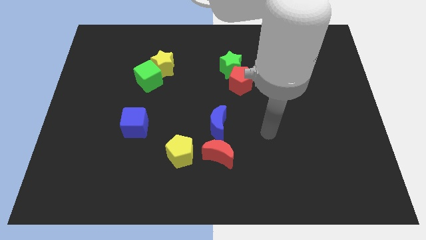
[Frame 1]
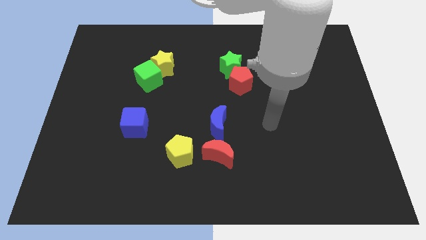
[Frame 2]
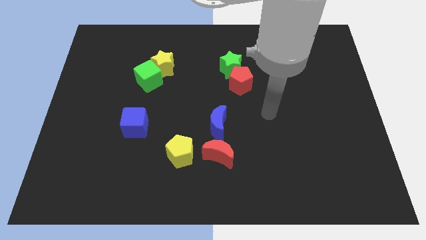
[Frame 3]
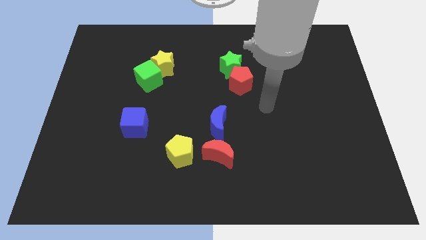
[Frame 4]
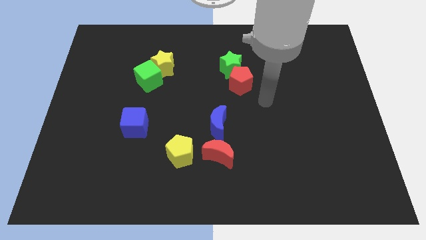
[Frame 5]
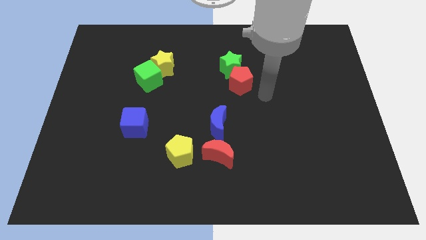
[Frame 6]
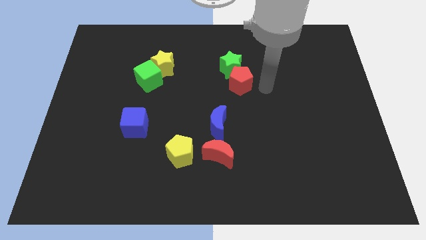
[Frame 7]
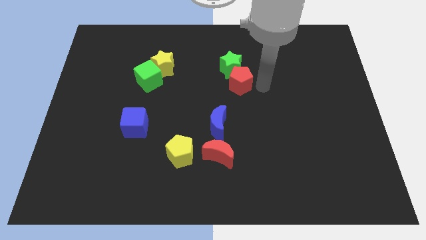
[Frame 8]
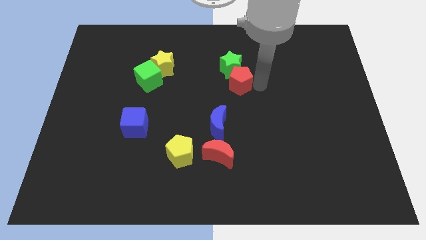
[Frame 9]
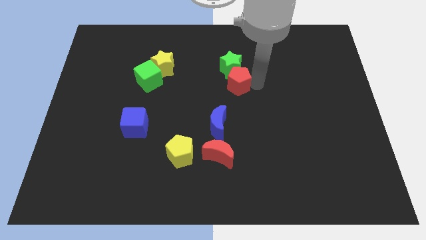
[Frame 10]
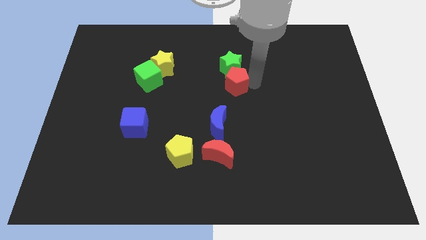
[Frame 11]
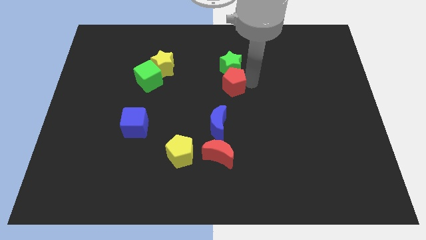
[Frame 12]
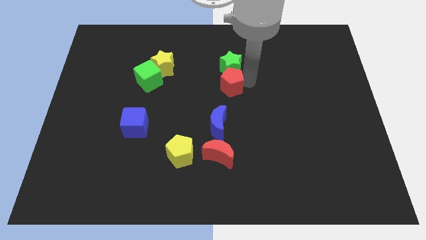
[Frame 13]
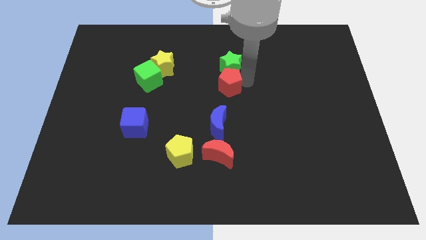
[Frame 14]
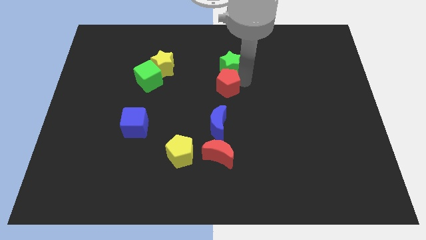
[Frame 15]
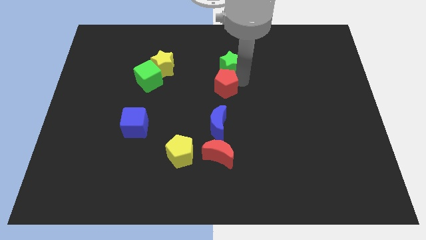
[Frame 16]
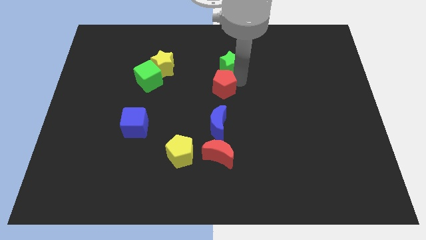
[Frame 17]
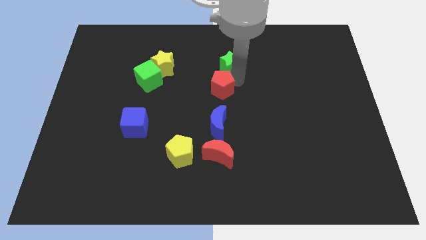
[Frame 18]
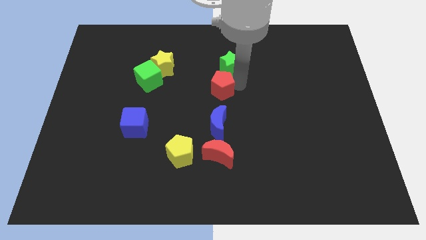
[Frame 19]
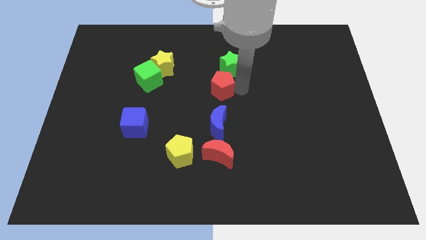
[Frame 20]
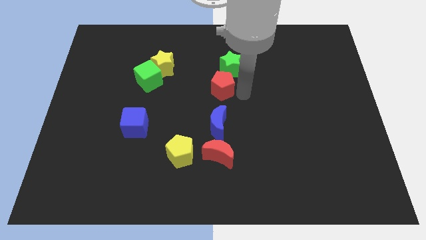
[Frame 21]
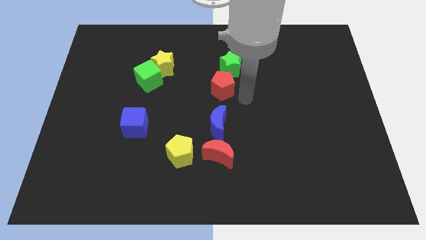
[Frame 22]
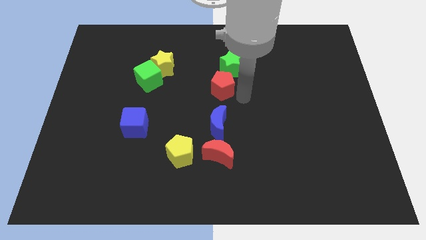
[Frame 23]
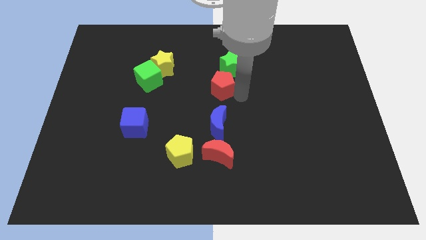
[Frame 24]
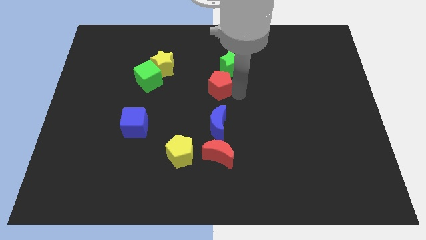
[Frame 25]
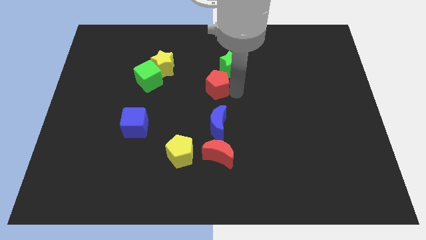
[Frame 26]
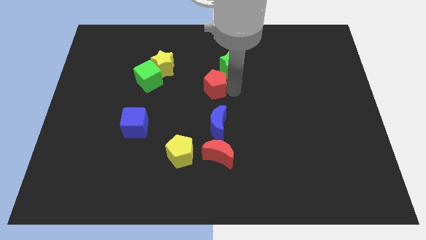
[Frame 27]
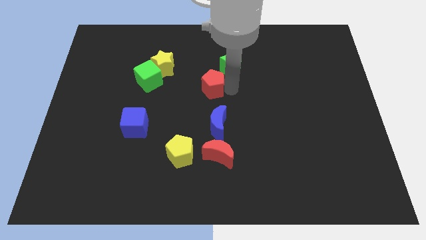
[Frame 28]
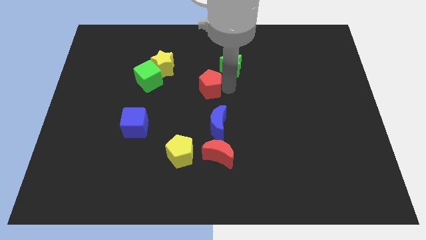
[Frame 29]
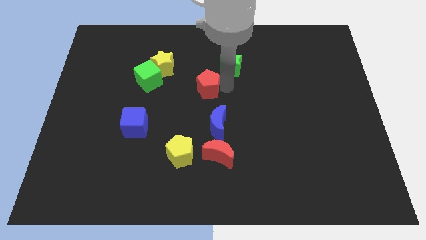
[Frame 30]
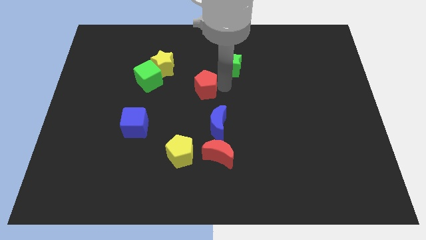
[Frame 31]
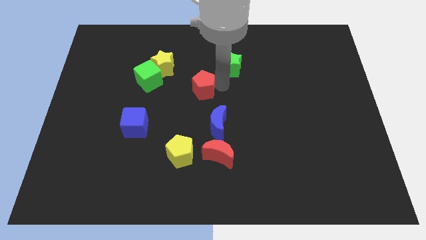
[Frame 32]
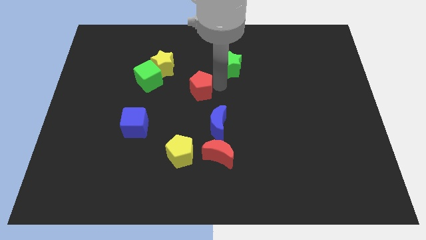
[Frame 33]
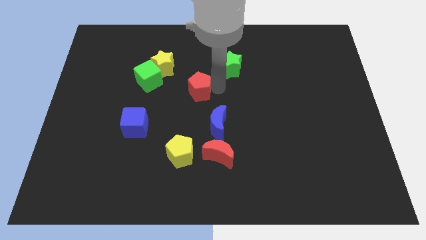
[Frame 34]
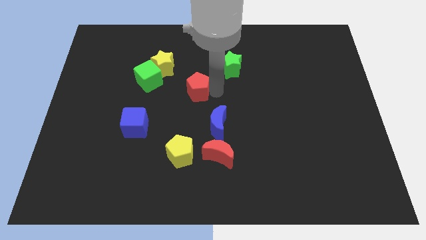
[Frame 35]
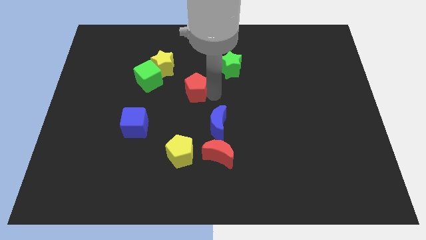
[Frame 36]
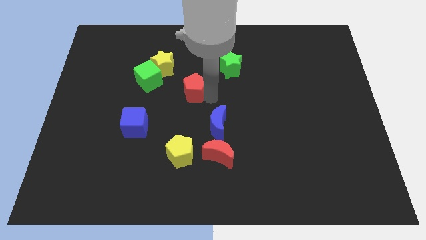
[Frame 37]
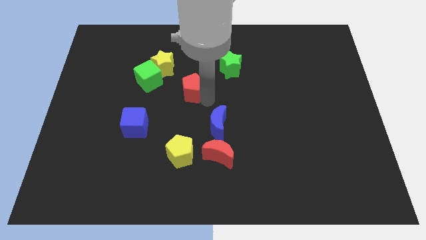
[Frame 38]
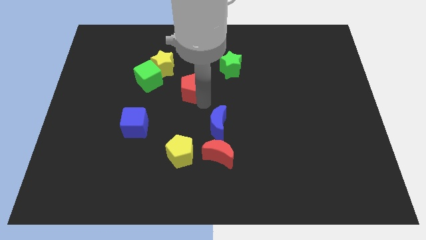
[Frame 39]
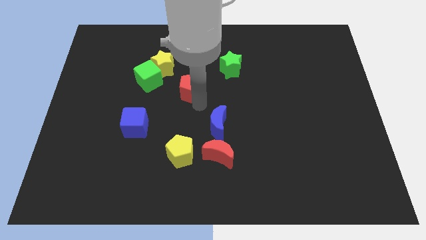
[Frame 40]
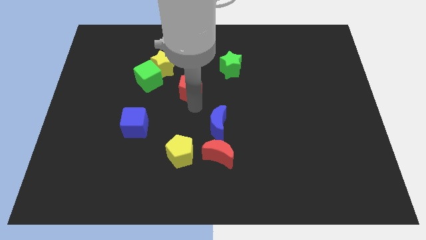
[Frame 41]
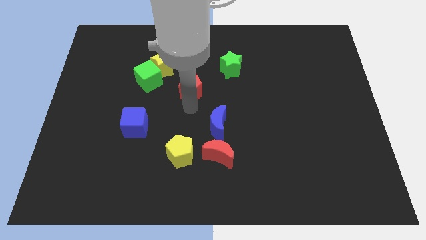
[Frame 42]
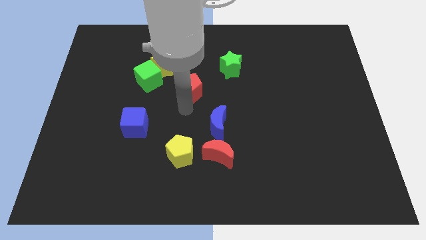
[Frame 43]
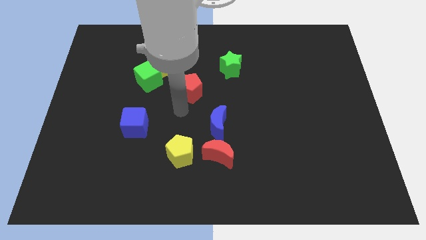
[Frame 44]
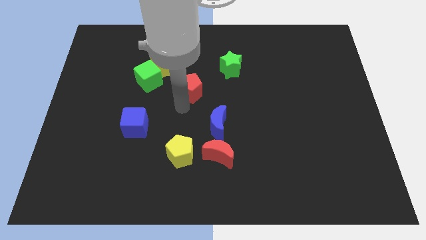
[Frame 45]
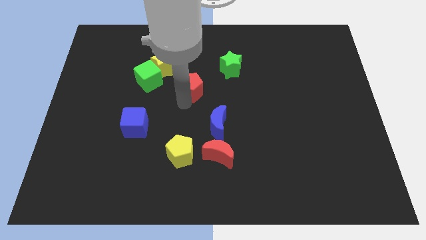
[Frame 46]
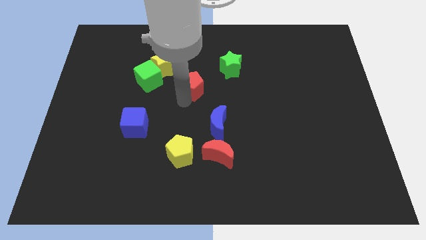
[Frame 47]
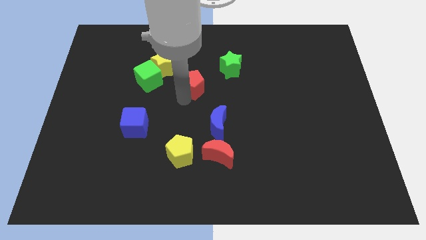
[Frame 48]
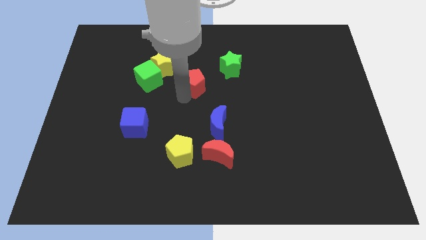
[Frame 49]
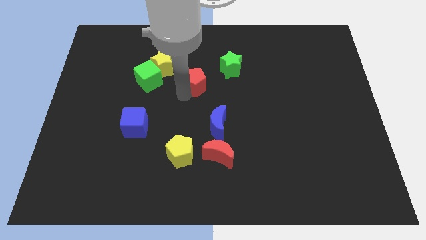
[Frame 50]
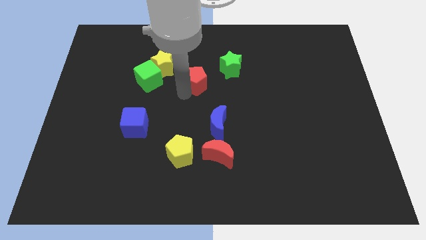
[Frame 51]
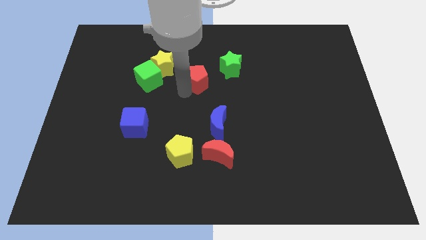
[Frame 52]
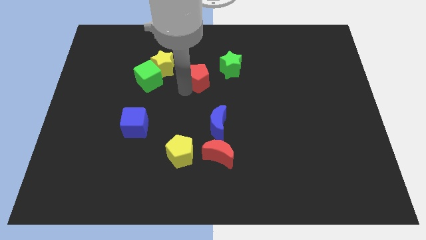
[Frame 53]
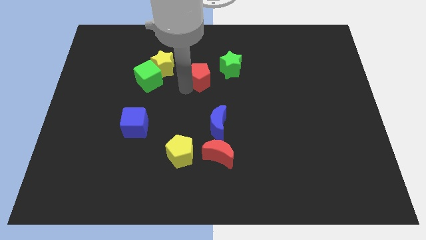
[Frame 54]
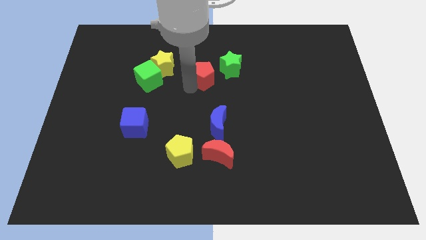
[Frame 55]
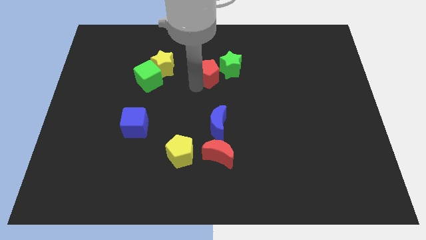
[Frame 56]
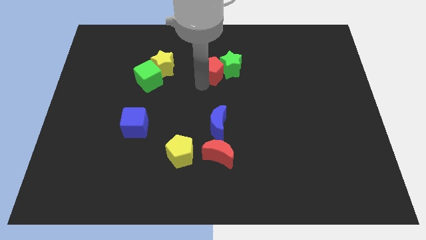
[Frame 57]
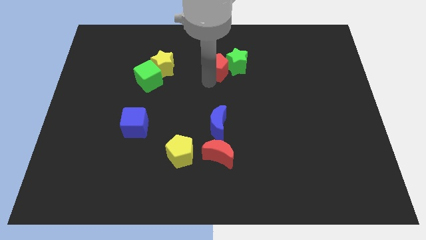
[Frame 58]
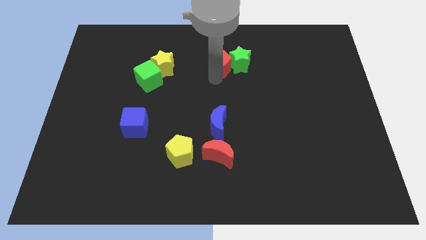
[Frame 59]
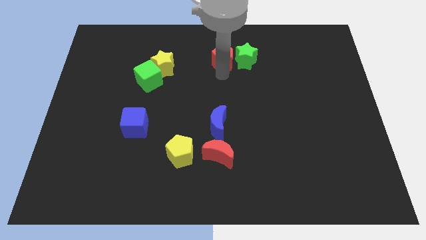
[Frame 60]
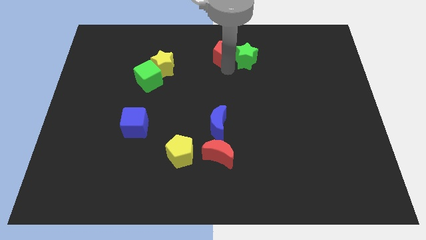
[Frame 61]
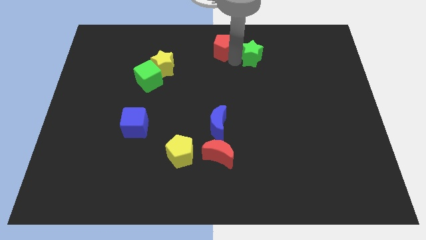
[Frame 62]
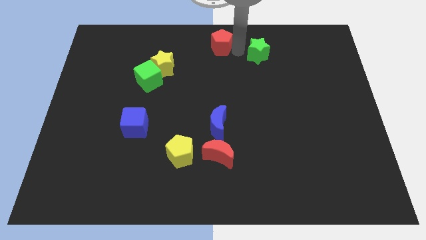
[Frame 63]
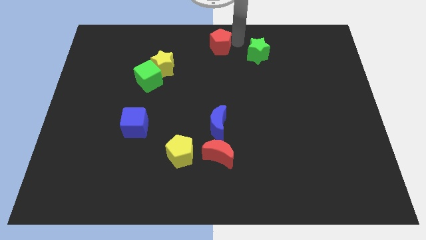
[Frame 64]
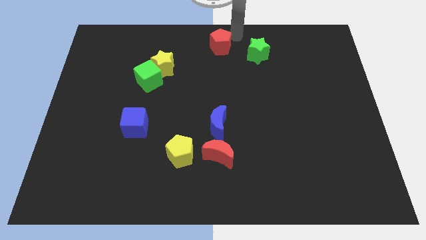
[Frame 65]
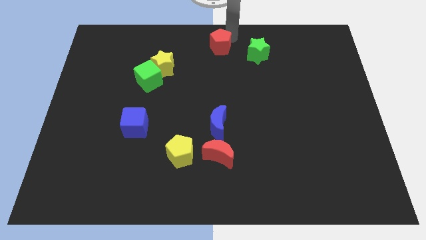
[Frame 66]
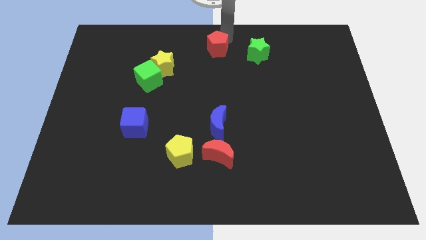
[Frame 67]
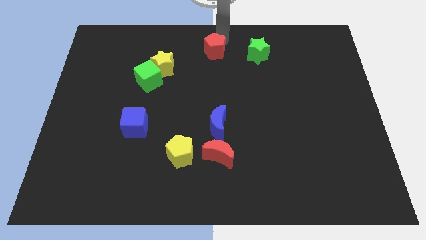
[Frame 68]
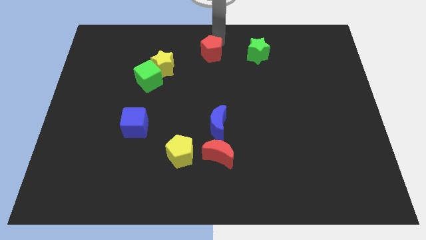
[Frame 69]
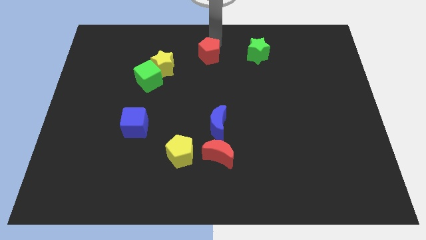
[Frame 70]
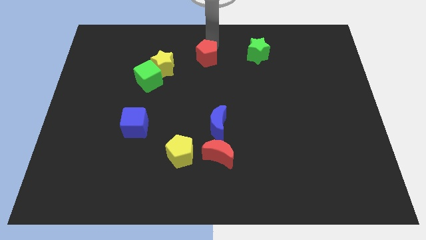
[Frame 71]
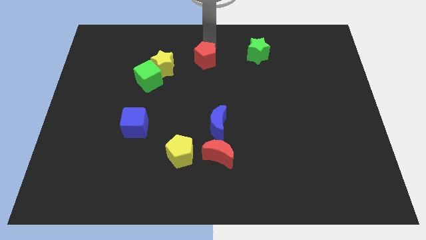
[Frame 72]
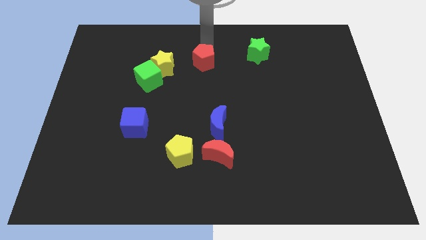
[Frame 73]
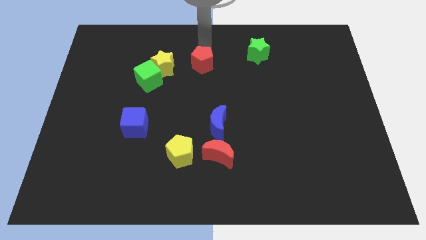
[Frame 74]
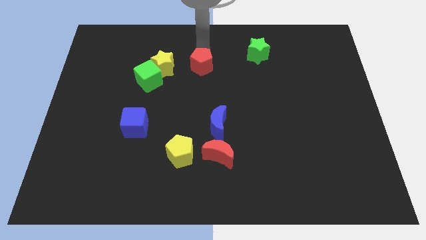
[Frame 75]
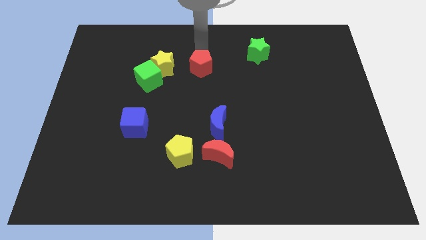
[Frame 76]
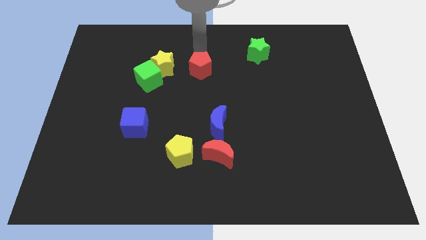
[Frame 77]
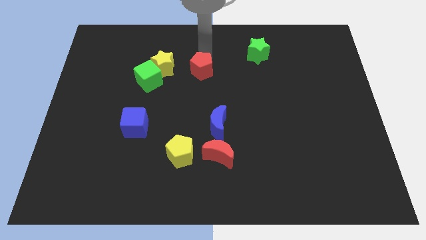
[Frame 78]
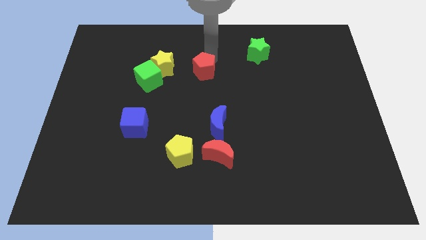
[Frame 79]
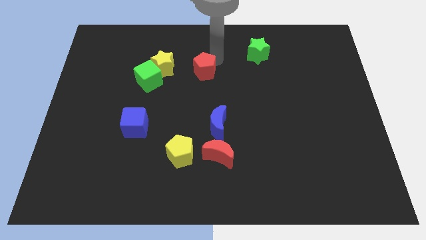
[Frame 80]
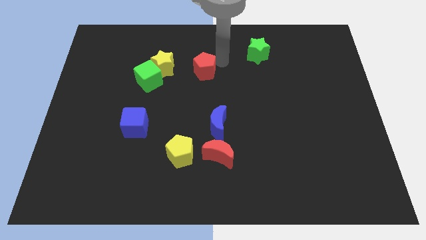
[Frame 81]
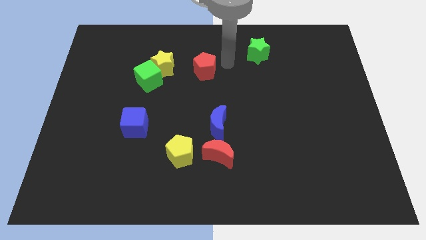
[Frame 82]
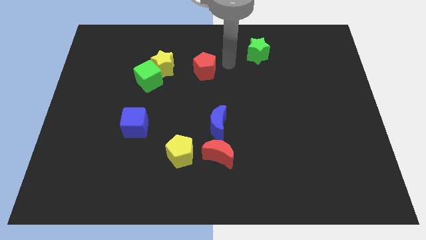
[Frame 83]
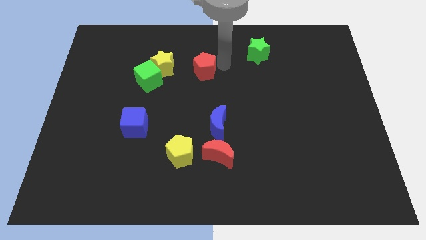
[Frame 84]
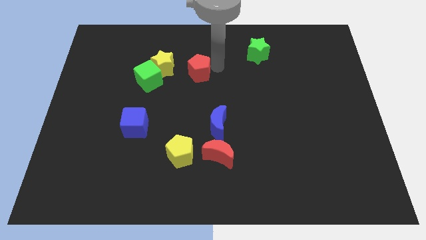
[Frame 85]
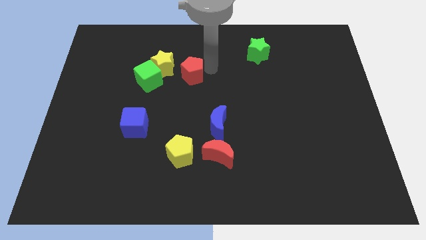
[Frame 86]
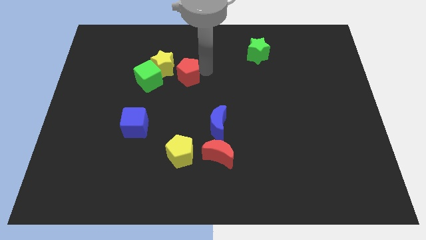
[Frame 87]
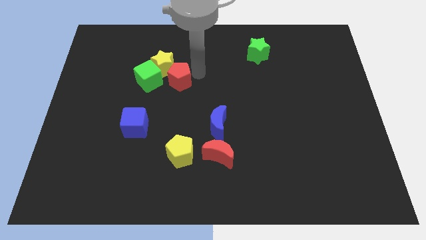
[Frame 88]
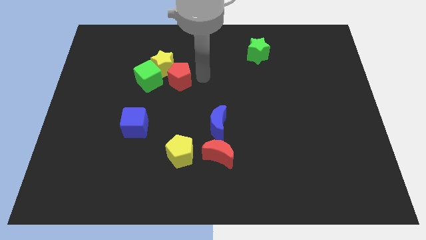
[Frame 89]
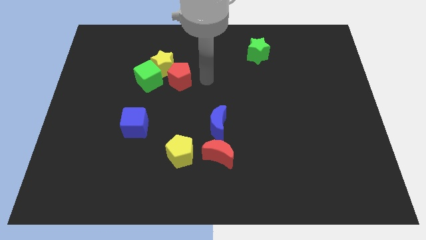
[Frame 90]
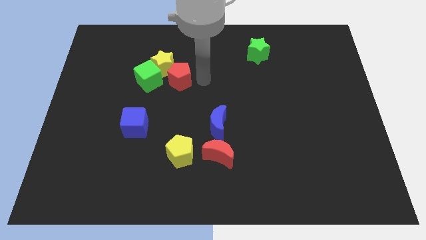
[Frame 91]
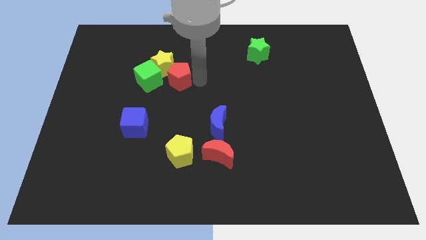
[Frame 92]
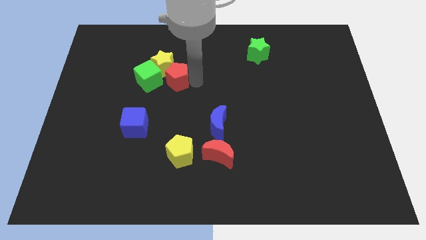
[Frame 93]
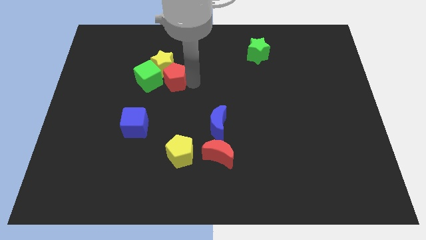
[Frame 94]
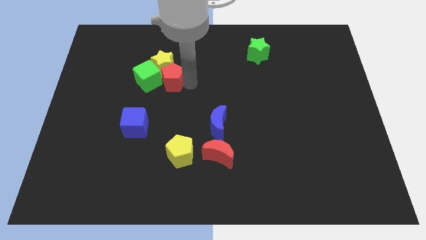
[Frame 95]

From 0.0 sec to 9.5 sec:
slide the red pentagon close to the green cube
